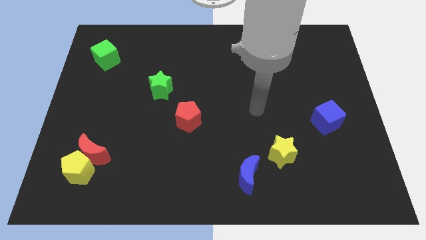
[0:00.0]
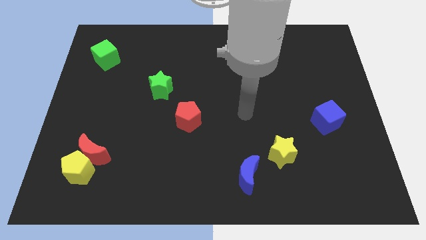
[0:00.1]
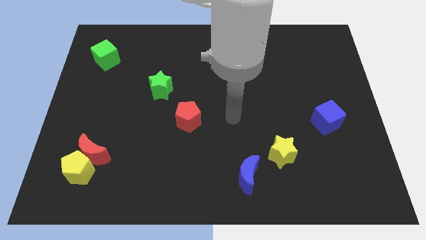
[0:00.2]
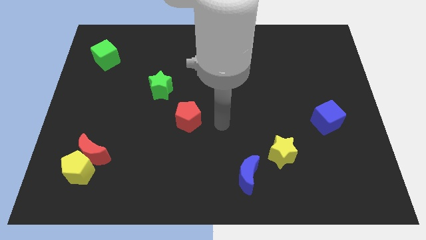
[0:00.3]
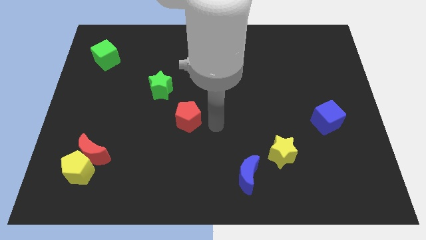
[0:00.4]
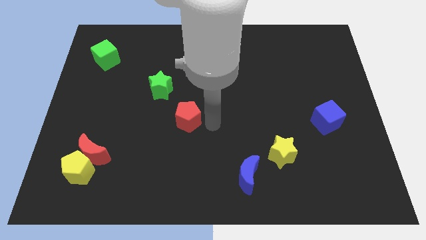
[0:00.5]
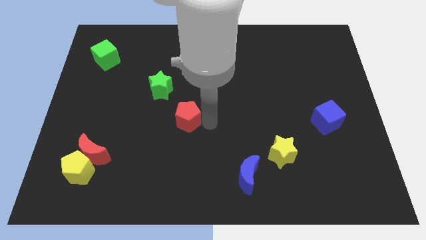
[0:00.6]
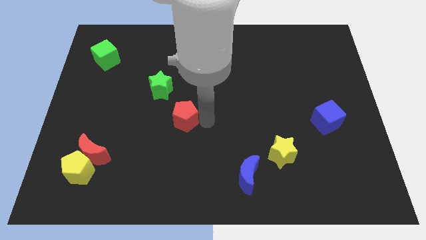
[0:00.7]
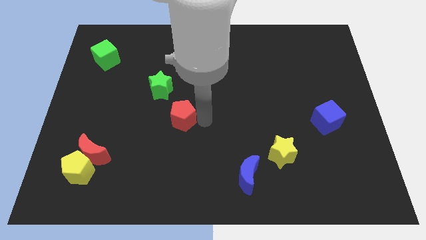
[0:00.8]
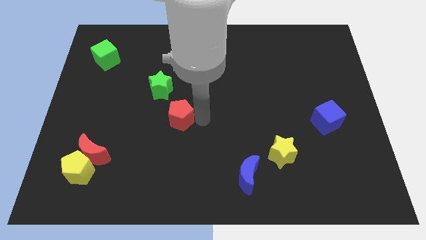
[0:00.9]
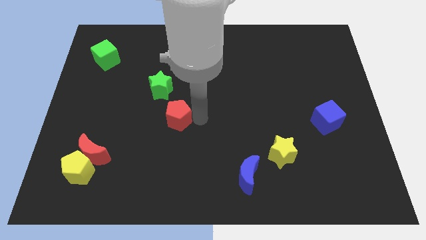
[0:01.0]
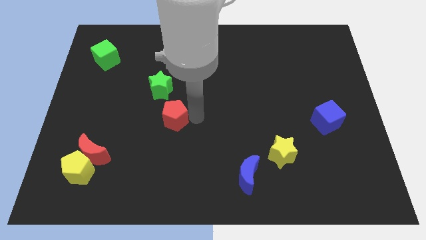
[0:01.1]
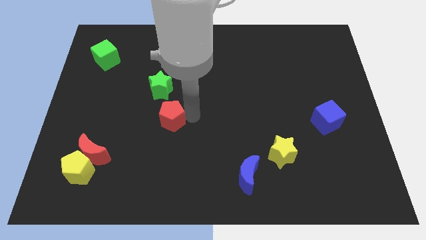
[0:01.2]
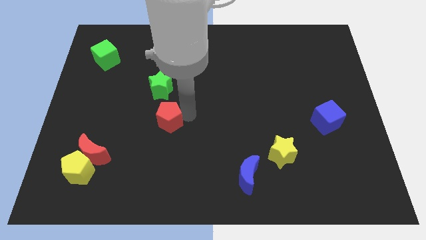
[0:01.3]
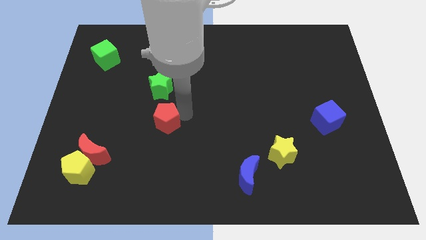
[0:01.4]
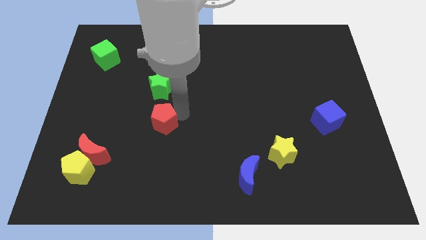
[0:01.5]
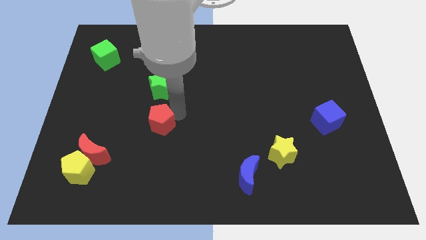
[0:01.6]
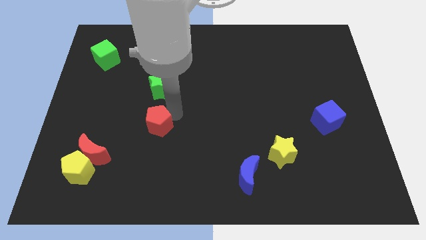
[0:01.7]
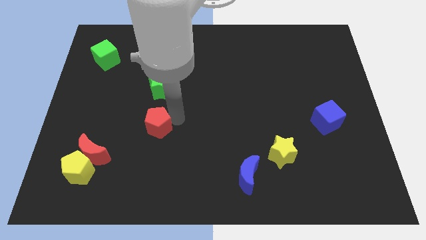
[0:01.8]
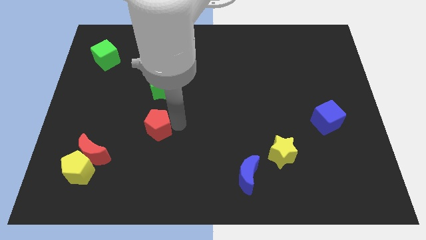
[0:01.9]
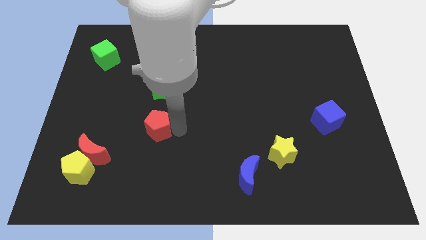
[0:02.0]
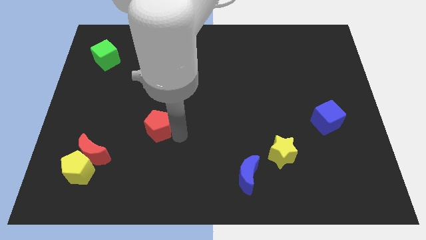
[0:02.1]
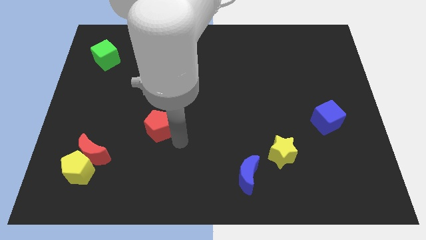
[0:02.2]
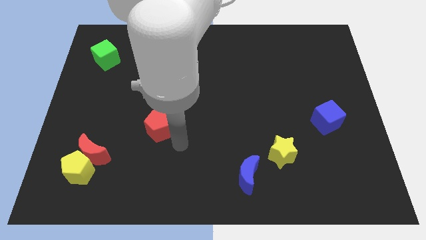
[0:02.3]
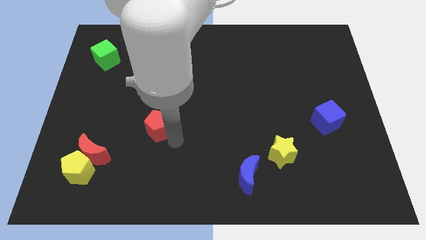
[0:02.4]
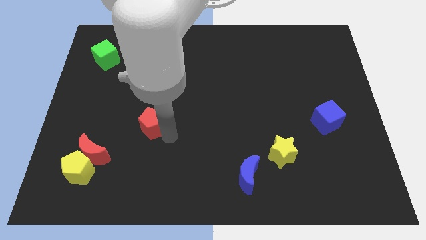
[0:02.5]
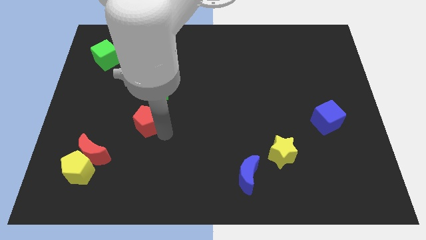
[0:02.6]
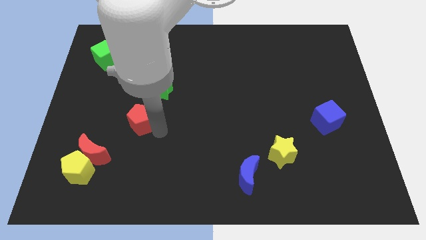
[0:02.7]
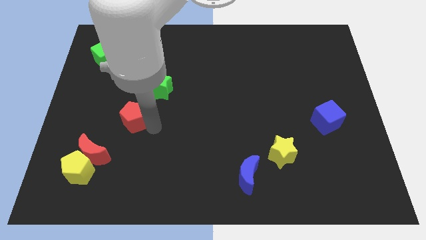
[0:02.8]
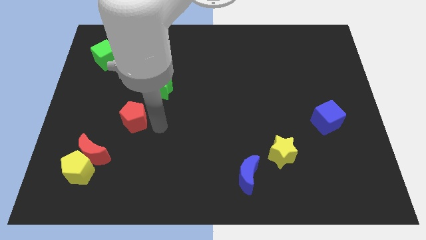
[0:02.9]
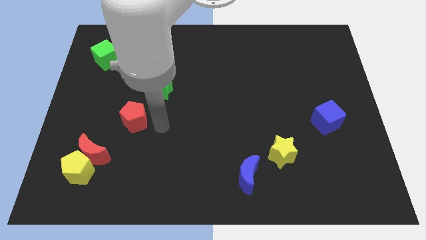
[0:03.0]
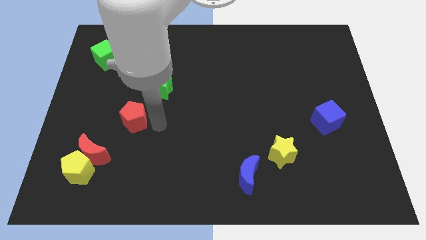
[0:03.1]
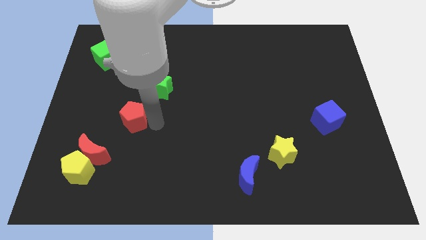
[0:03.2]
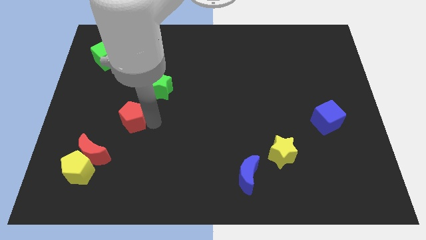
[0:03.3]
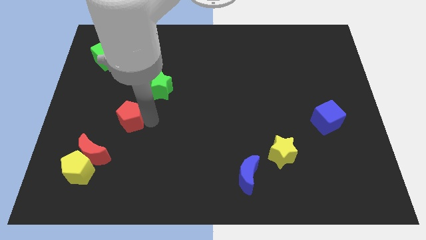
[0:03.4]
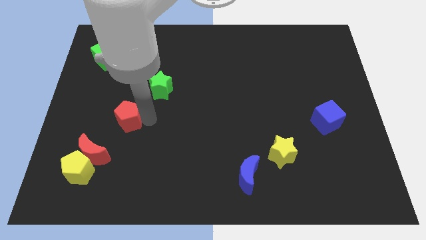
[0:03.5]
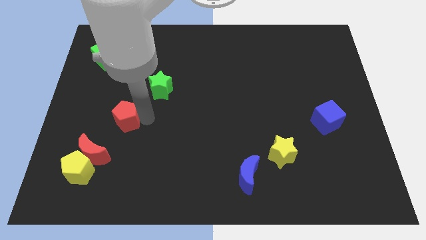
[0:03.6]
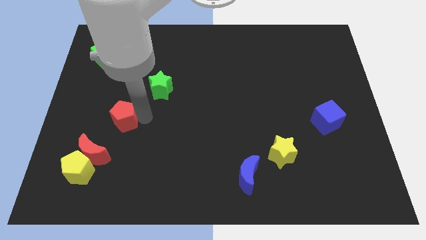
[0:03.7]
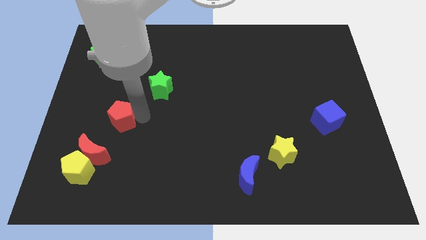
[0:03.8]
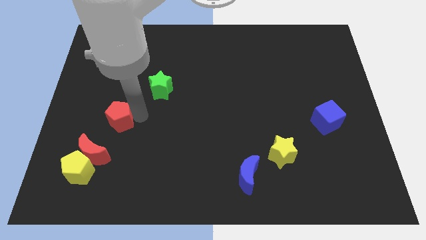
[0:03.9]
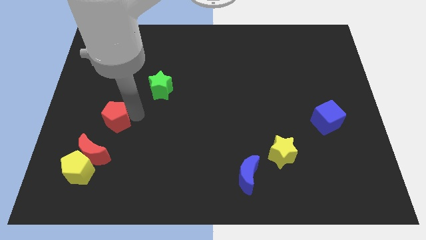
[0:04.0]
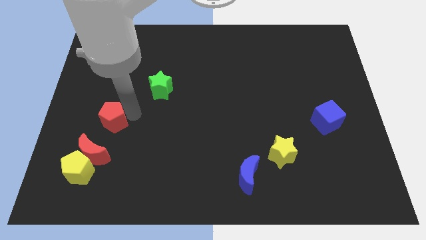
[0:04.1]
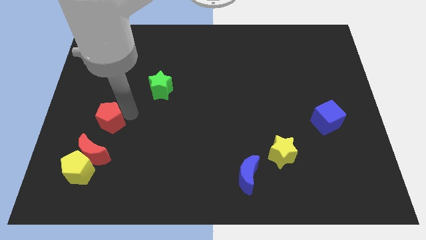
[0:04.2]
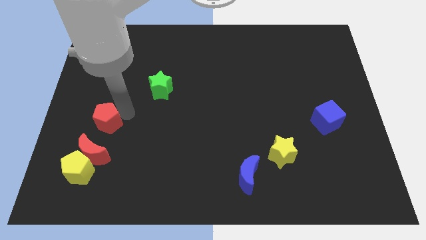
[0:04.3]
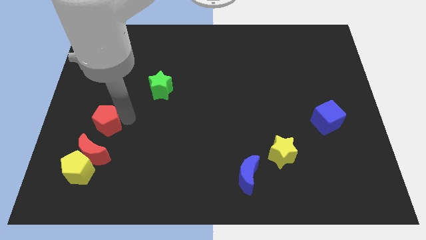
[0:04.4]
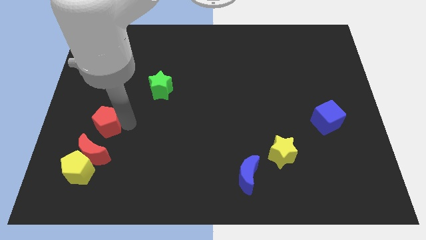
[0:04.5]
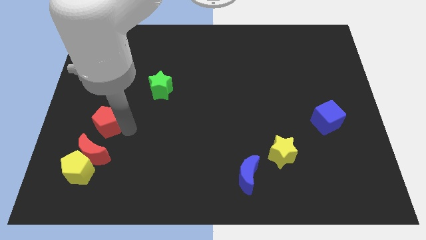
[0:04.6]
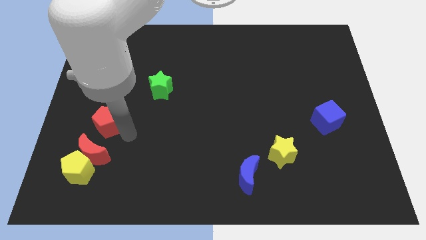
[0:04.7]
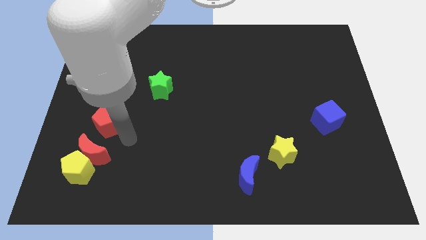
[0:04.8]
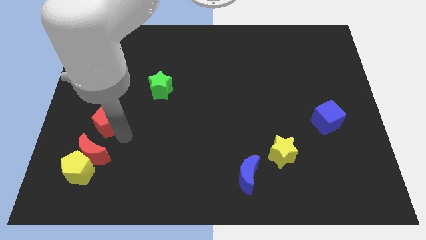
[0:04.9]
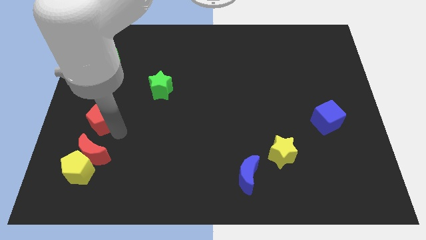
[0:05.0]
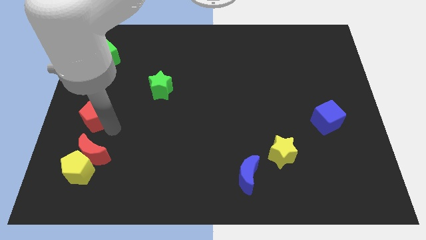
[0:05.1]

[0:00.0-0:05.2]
put the red pentagon to the left side of the board

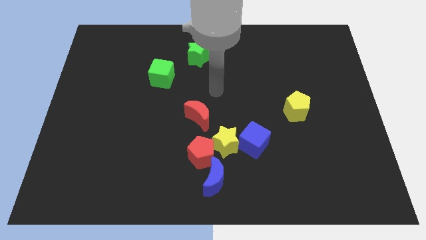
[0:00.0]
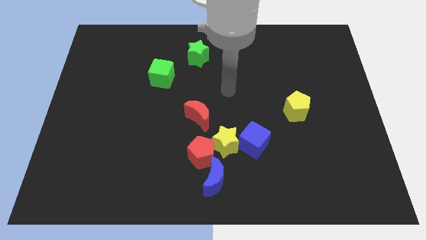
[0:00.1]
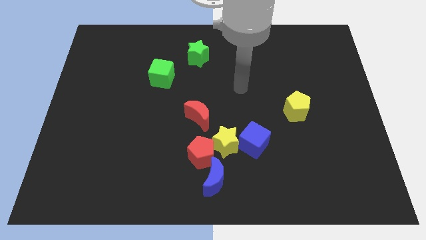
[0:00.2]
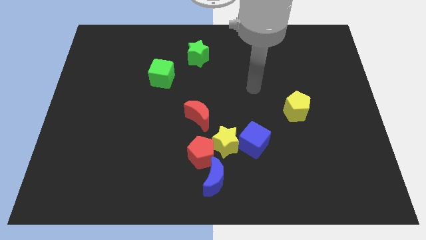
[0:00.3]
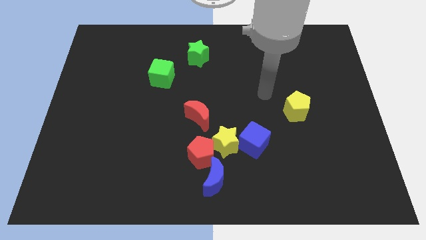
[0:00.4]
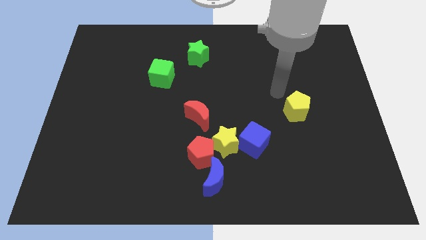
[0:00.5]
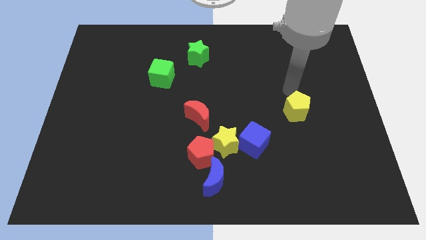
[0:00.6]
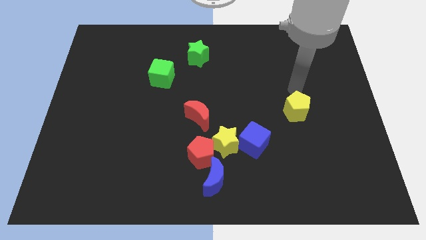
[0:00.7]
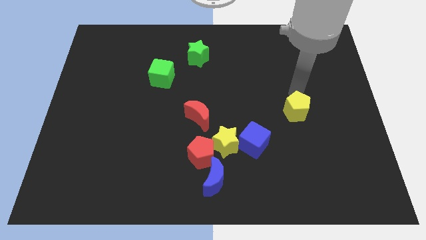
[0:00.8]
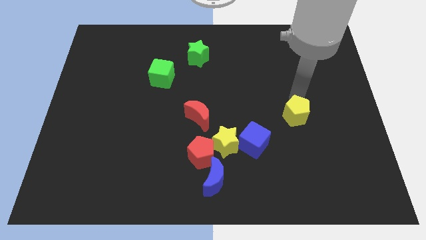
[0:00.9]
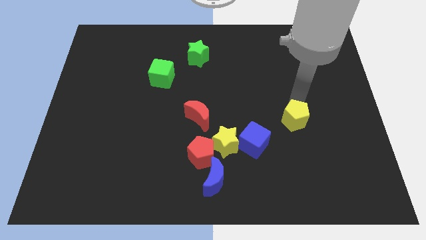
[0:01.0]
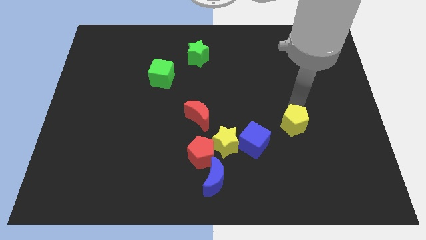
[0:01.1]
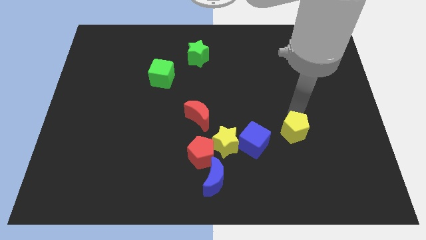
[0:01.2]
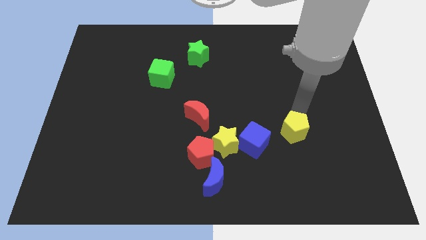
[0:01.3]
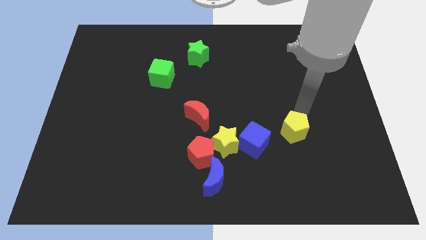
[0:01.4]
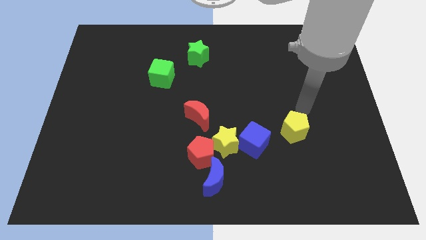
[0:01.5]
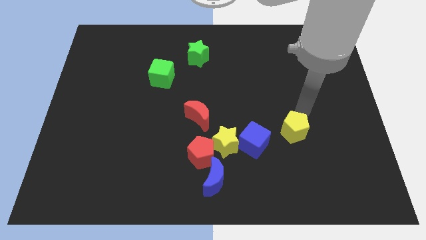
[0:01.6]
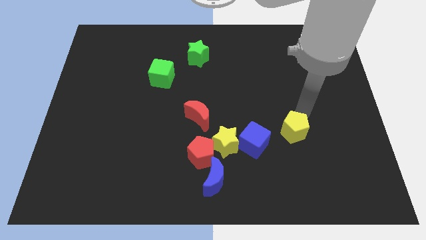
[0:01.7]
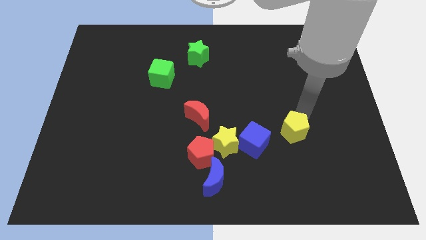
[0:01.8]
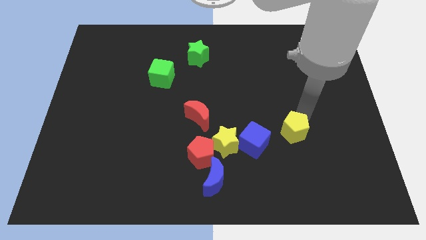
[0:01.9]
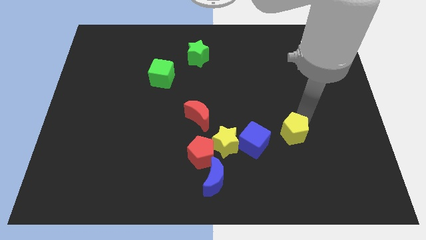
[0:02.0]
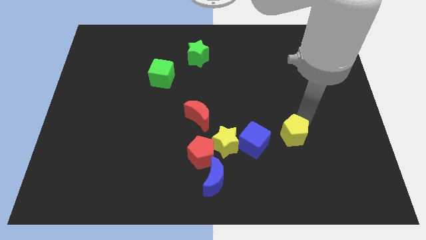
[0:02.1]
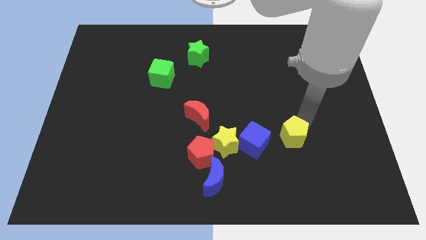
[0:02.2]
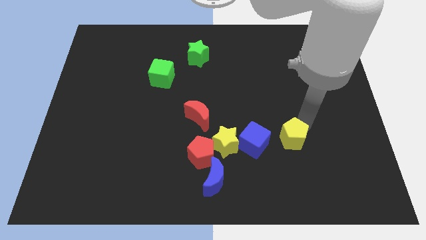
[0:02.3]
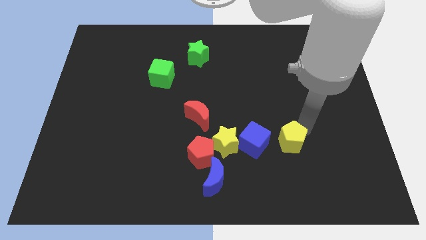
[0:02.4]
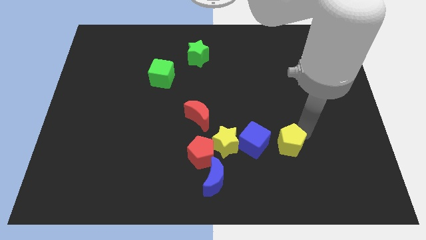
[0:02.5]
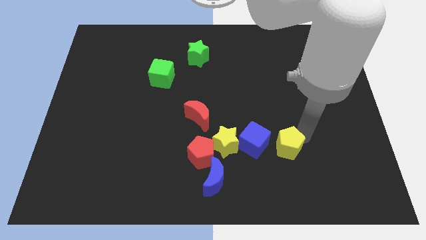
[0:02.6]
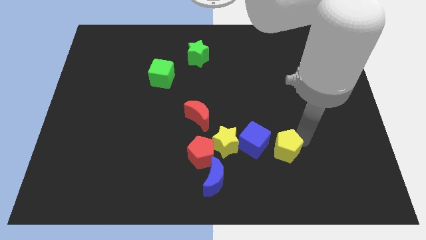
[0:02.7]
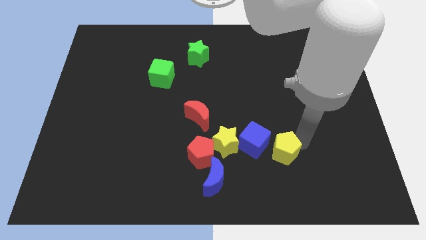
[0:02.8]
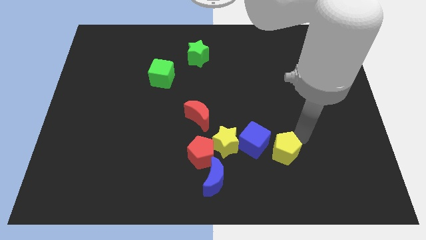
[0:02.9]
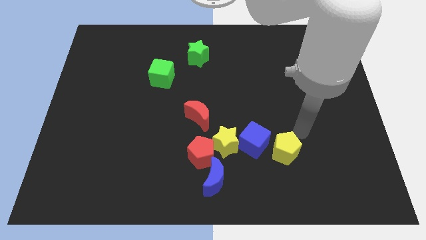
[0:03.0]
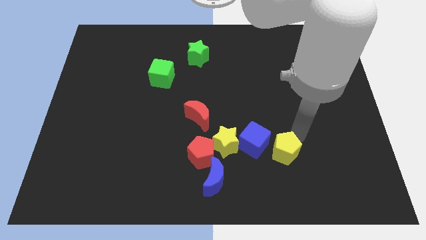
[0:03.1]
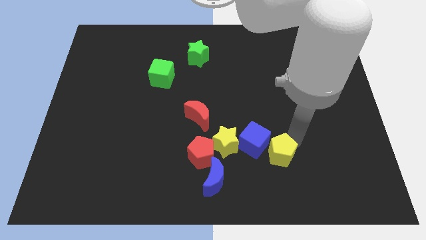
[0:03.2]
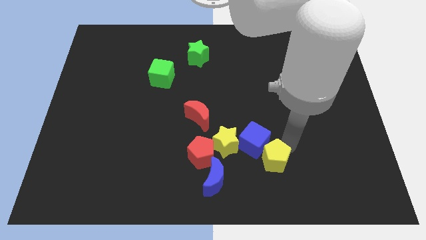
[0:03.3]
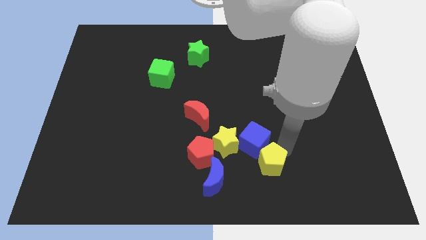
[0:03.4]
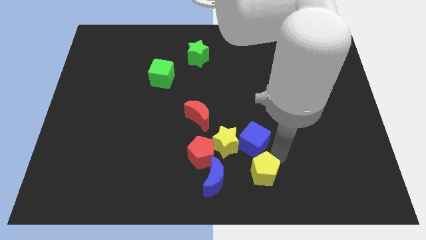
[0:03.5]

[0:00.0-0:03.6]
push the yellow pentagon to the bottom side
